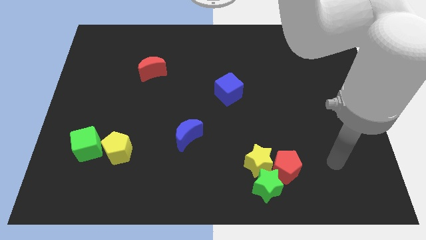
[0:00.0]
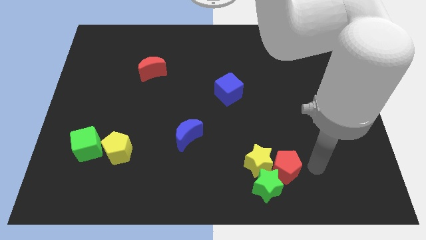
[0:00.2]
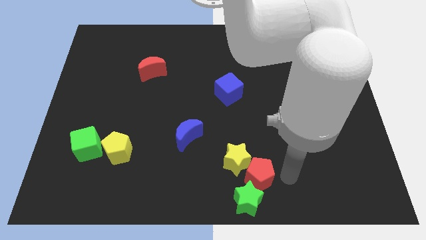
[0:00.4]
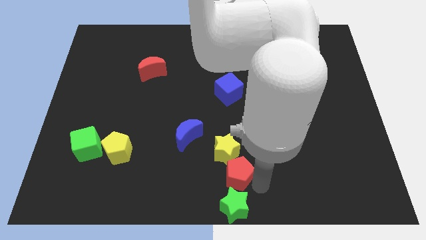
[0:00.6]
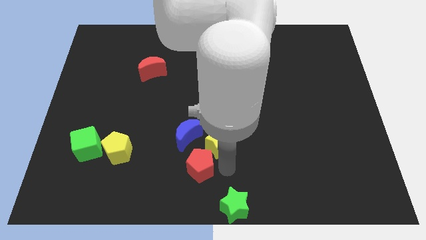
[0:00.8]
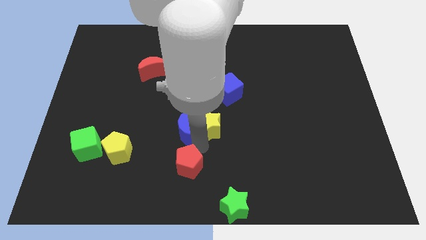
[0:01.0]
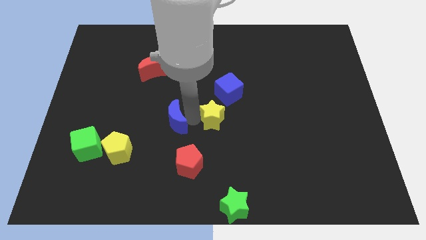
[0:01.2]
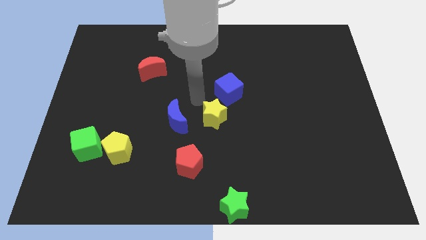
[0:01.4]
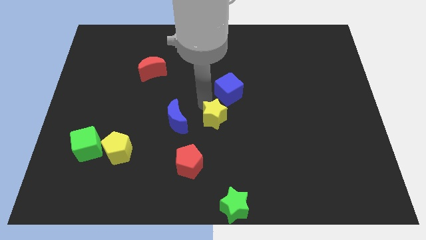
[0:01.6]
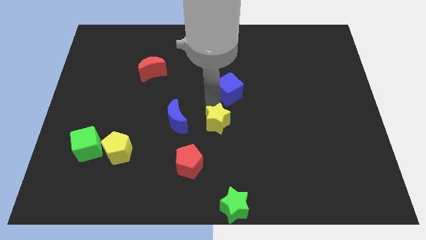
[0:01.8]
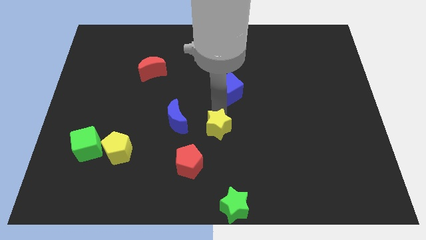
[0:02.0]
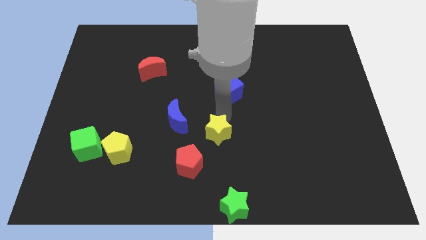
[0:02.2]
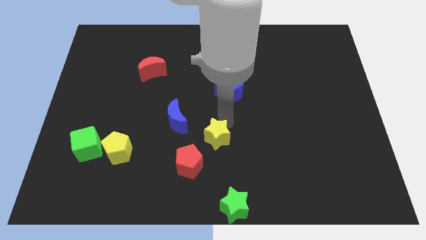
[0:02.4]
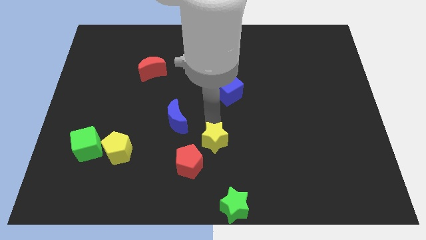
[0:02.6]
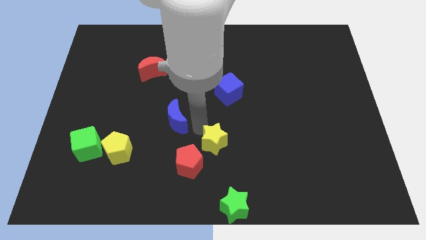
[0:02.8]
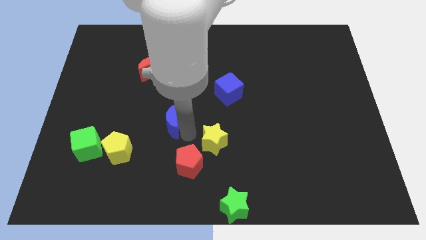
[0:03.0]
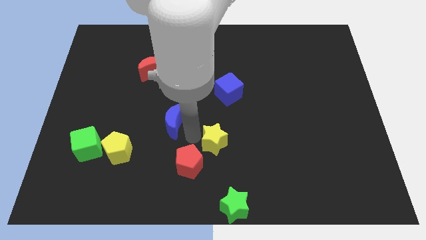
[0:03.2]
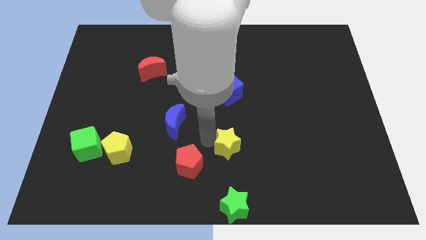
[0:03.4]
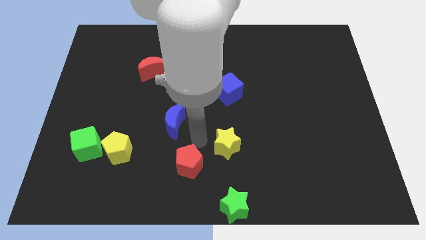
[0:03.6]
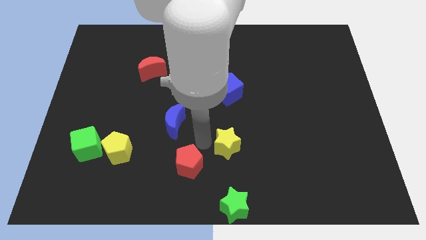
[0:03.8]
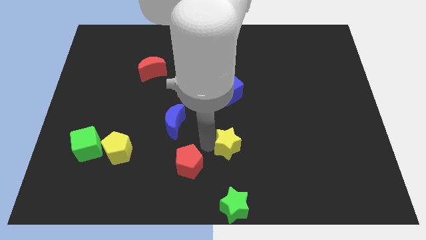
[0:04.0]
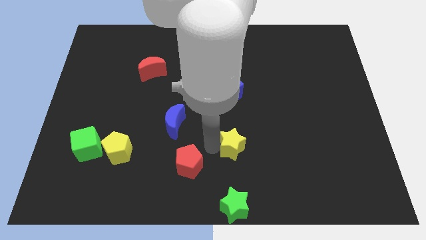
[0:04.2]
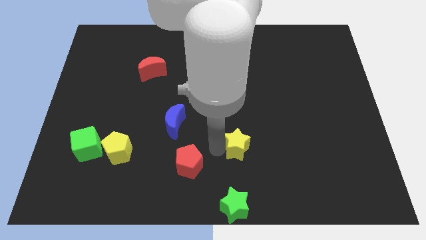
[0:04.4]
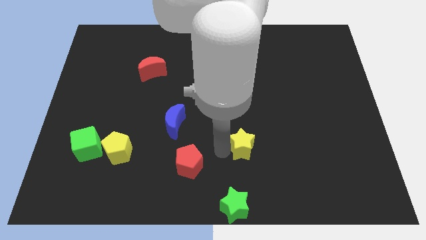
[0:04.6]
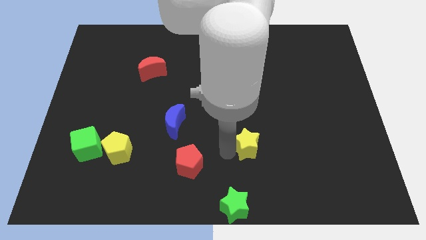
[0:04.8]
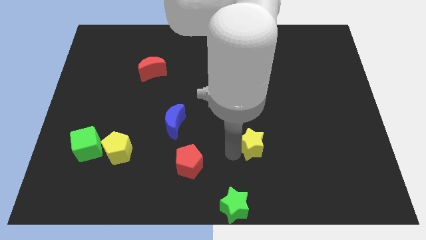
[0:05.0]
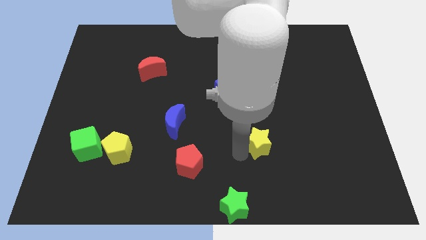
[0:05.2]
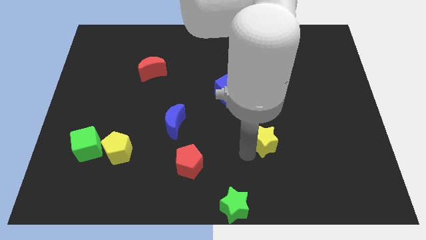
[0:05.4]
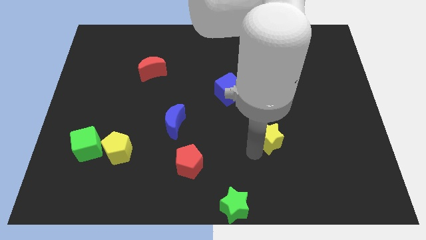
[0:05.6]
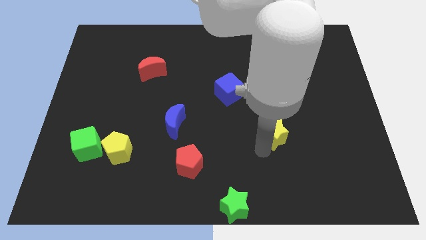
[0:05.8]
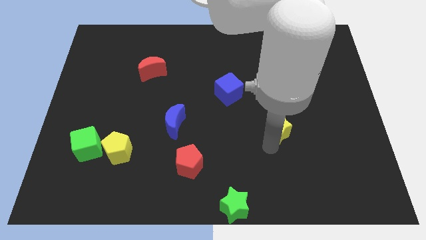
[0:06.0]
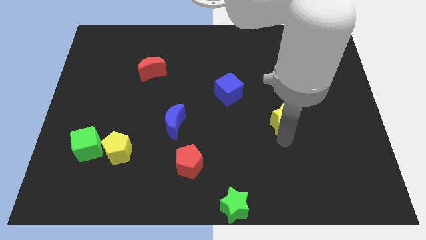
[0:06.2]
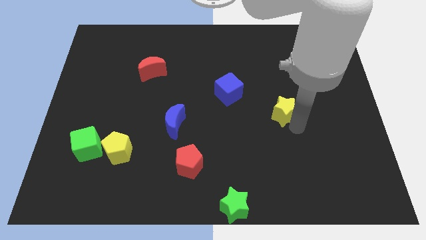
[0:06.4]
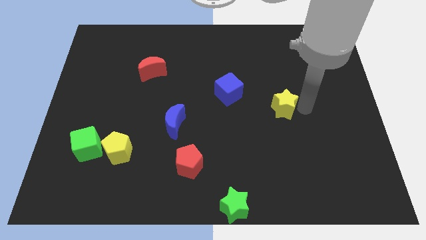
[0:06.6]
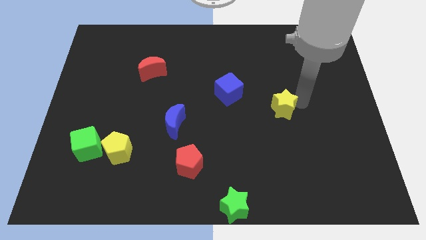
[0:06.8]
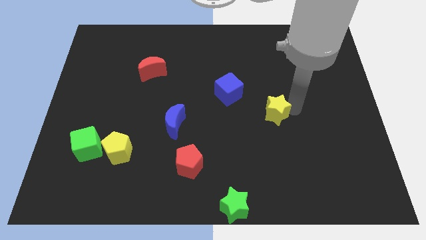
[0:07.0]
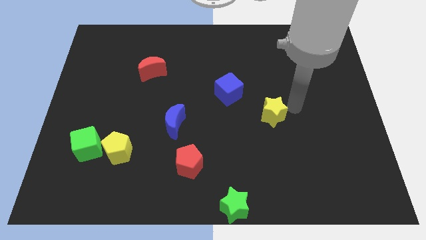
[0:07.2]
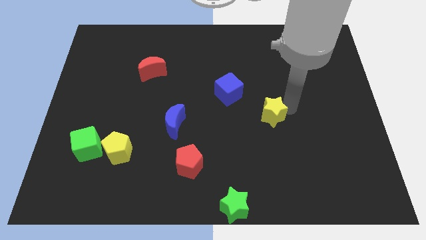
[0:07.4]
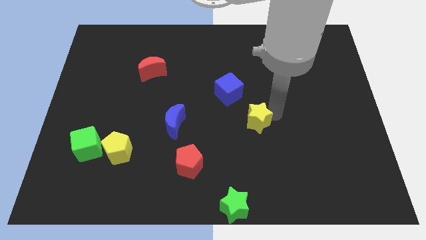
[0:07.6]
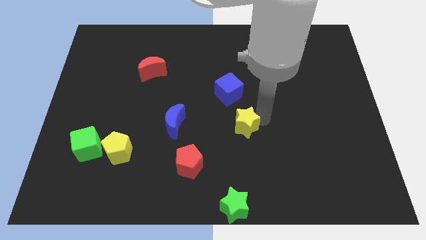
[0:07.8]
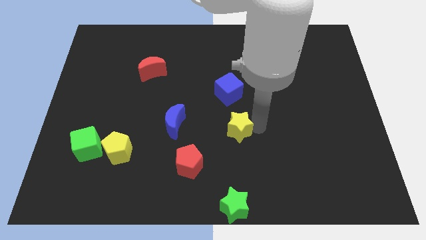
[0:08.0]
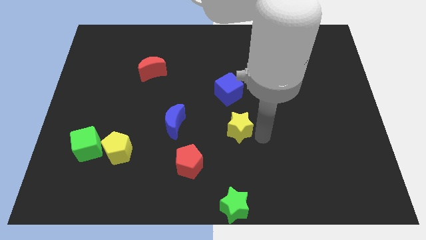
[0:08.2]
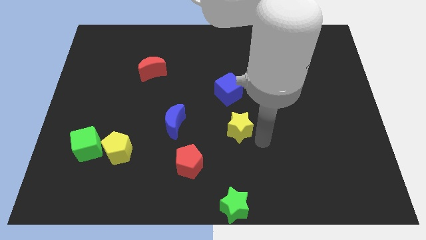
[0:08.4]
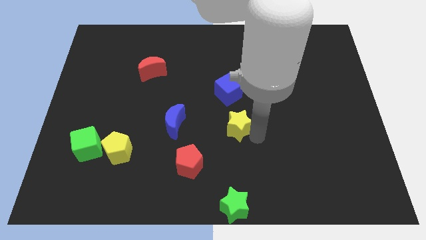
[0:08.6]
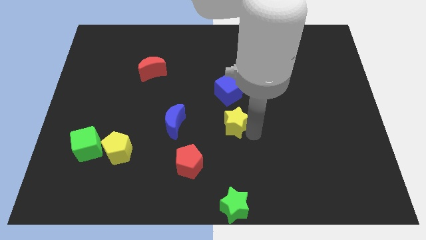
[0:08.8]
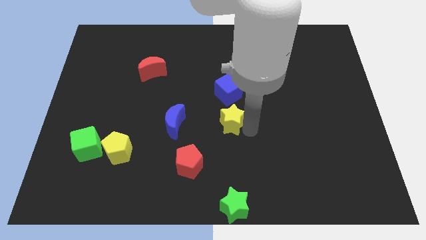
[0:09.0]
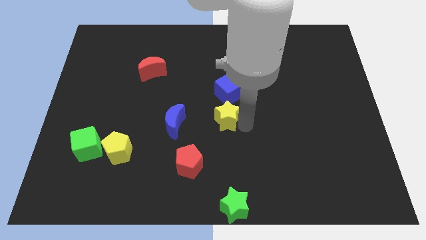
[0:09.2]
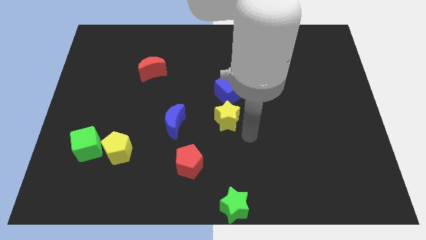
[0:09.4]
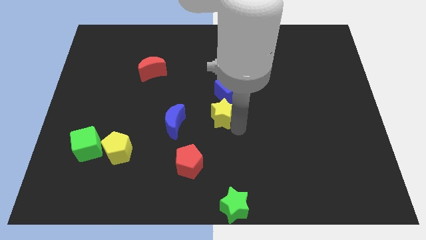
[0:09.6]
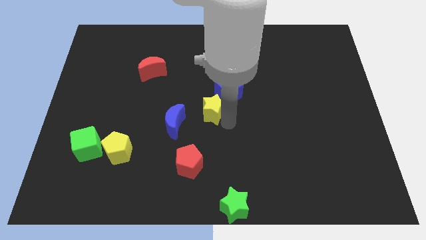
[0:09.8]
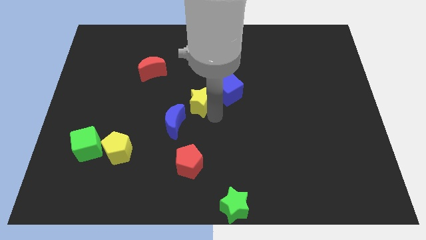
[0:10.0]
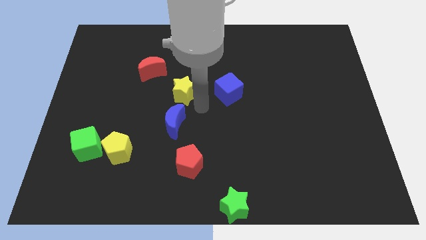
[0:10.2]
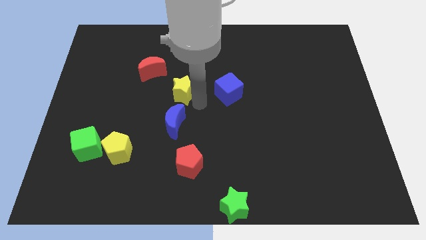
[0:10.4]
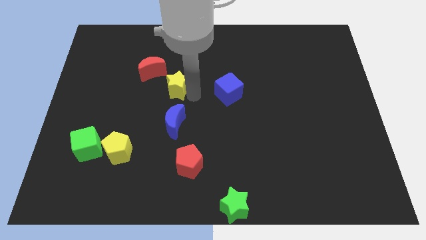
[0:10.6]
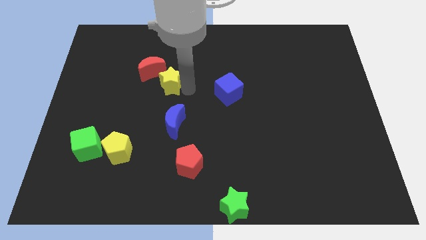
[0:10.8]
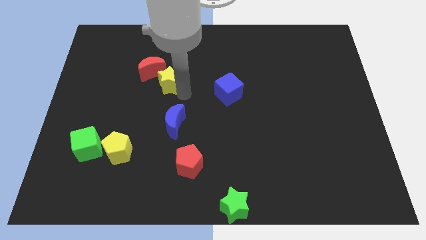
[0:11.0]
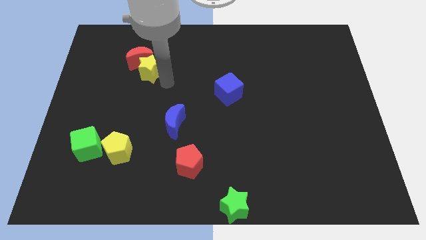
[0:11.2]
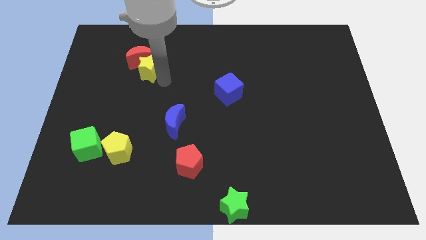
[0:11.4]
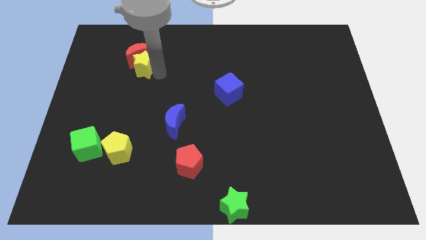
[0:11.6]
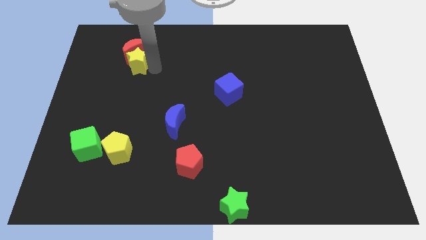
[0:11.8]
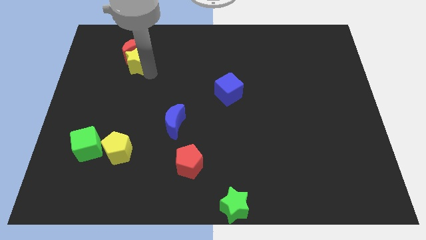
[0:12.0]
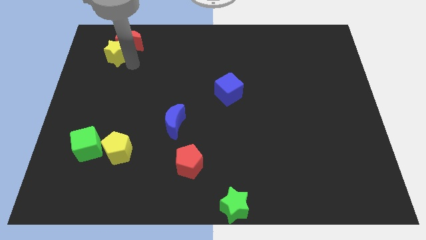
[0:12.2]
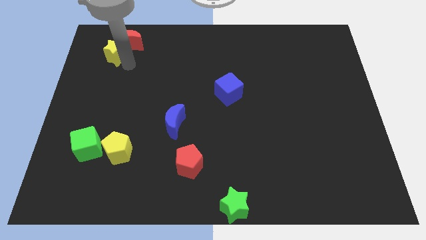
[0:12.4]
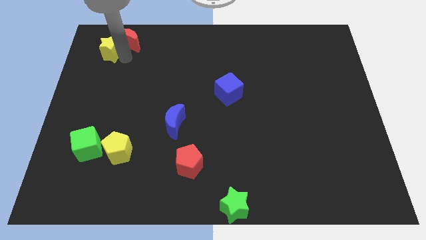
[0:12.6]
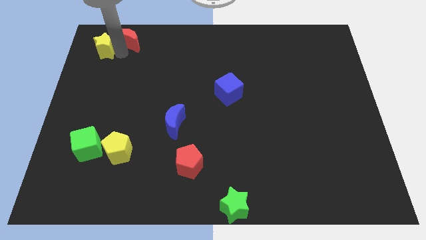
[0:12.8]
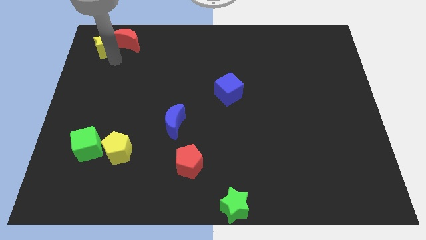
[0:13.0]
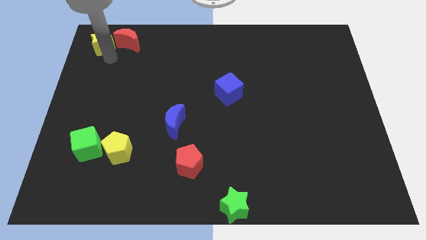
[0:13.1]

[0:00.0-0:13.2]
slide the yellow star to the top left of the board
